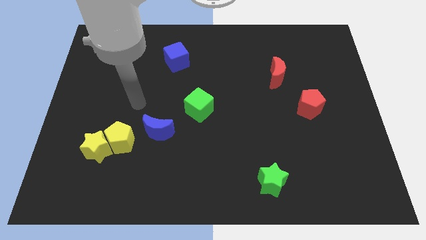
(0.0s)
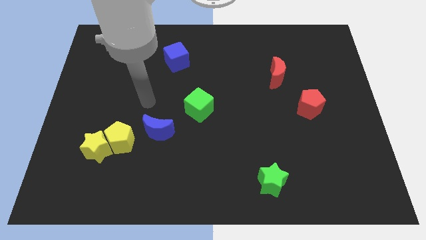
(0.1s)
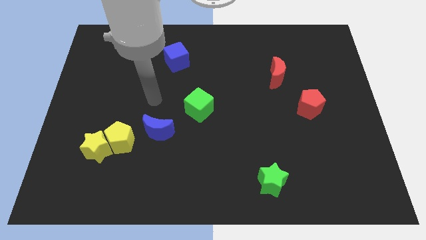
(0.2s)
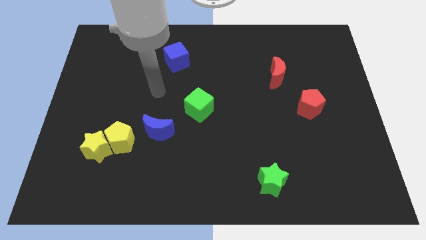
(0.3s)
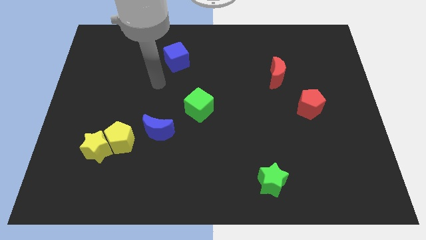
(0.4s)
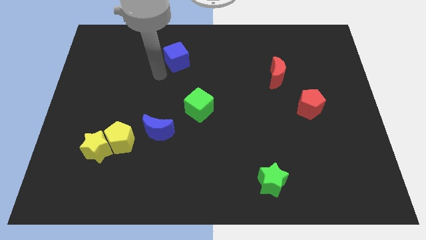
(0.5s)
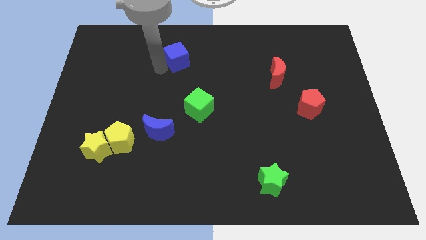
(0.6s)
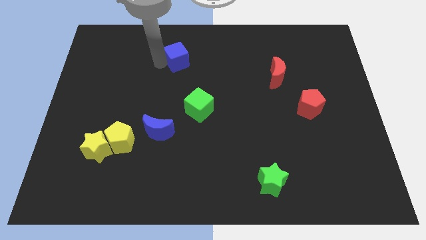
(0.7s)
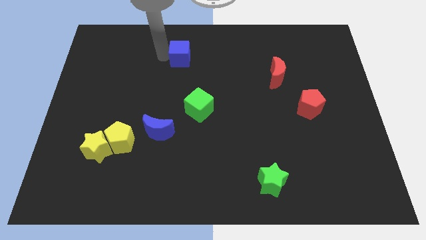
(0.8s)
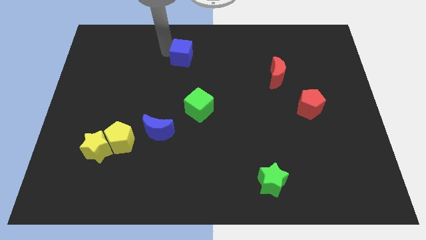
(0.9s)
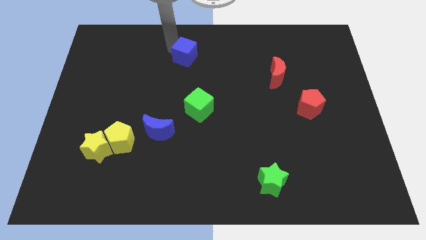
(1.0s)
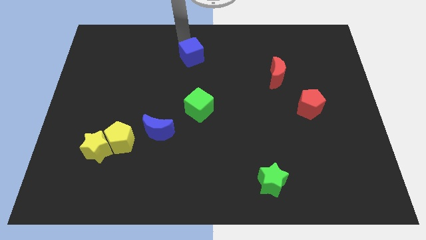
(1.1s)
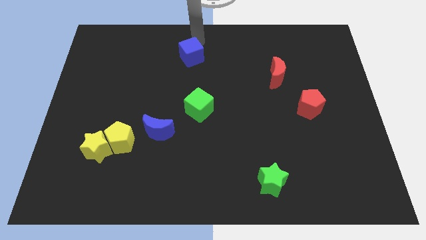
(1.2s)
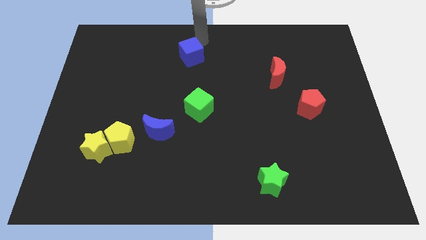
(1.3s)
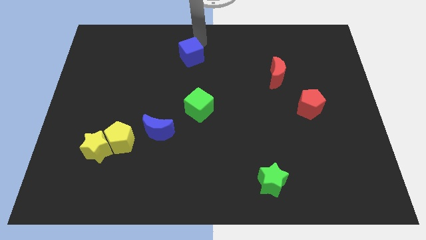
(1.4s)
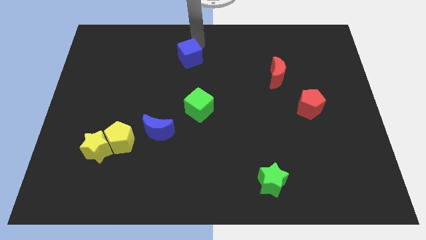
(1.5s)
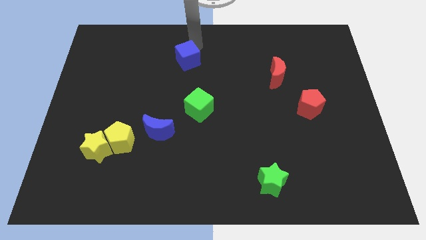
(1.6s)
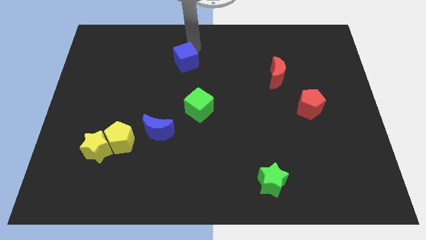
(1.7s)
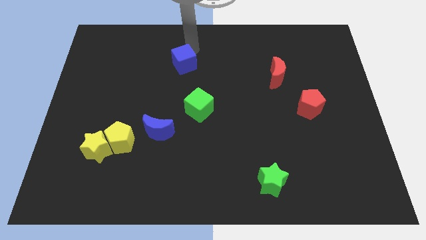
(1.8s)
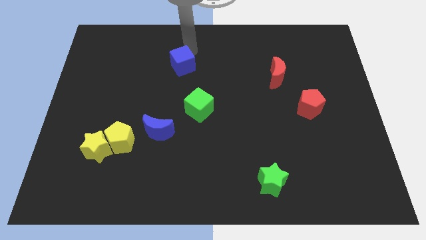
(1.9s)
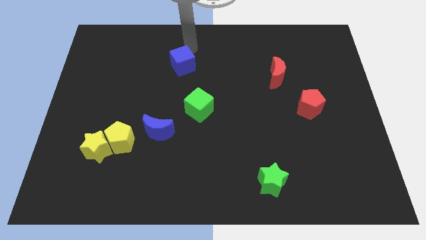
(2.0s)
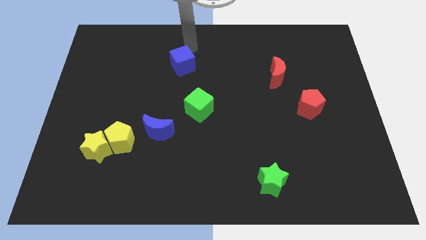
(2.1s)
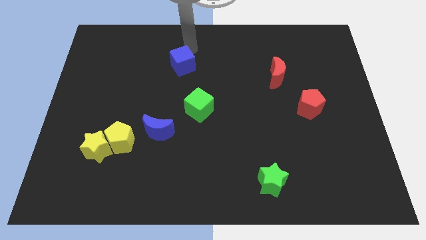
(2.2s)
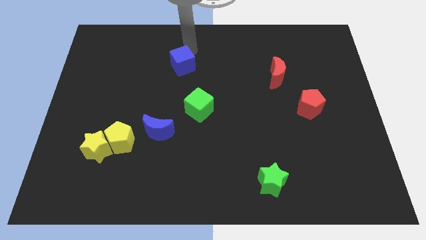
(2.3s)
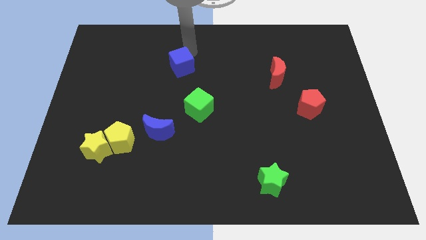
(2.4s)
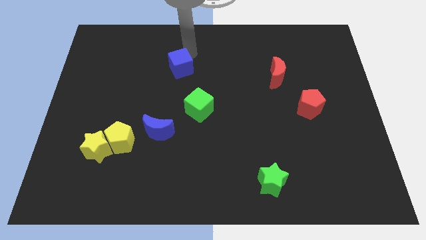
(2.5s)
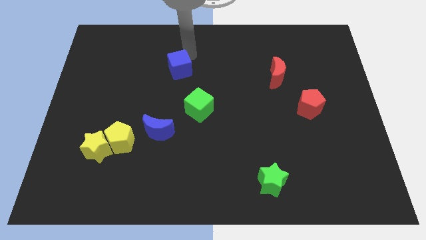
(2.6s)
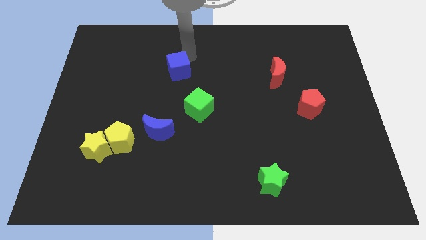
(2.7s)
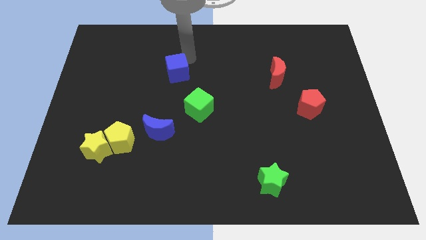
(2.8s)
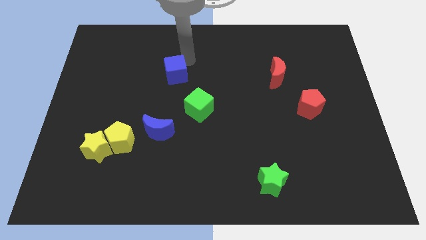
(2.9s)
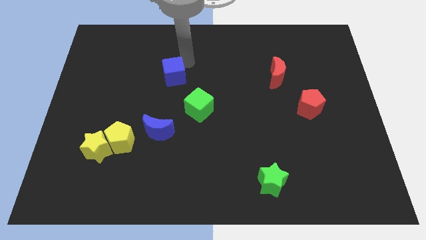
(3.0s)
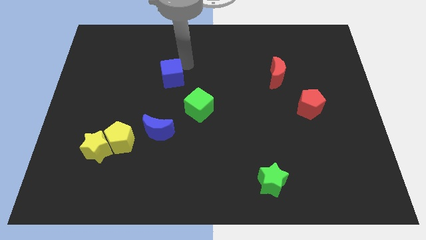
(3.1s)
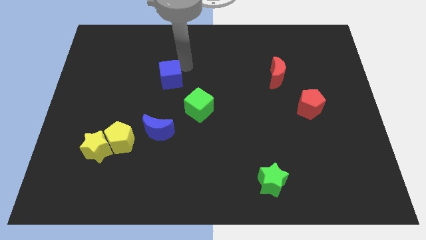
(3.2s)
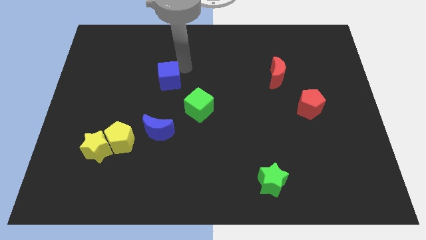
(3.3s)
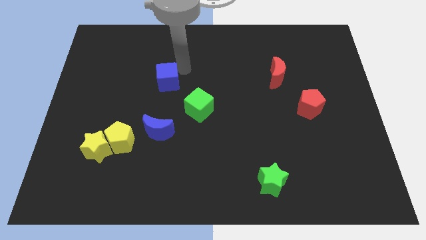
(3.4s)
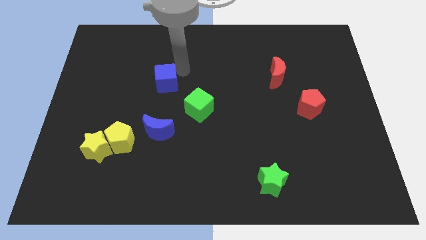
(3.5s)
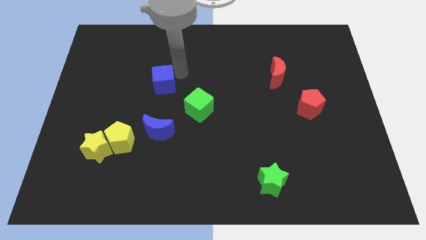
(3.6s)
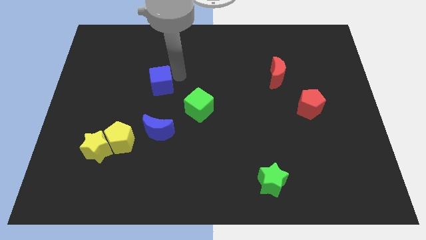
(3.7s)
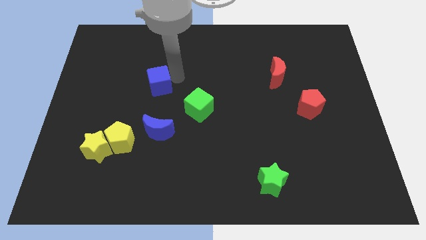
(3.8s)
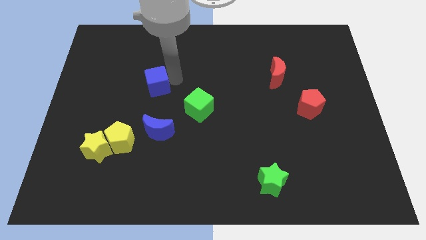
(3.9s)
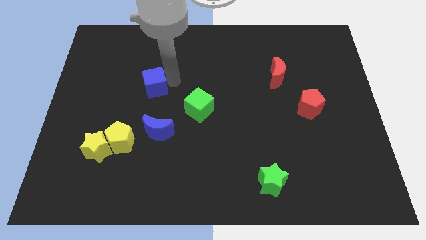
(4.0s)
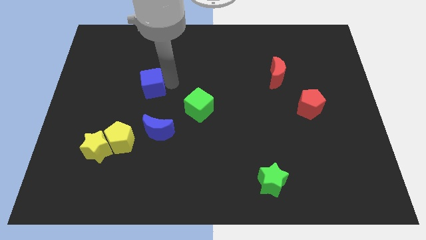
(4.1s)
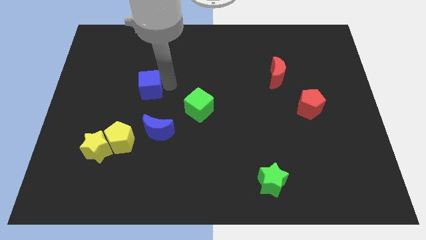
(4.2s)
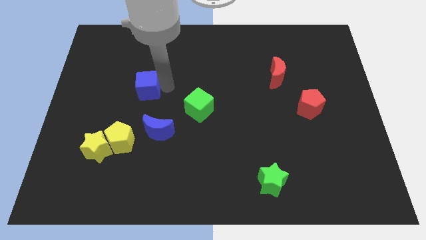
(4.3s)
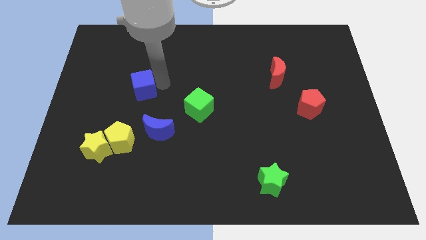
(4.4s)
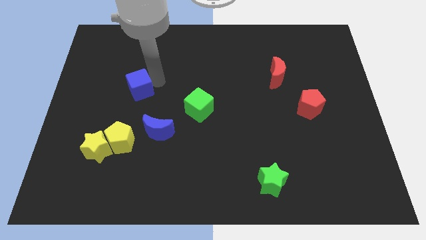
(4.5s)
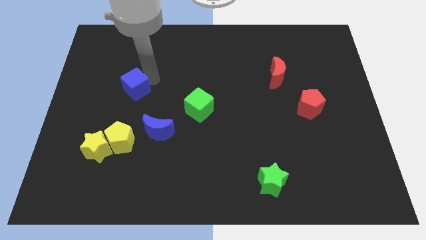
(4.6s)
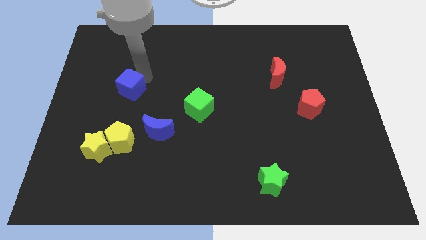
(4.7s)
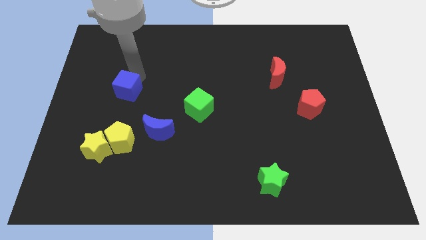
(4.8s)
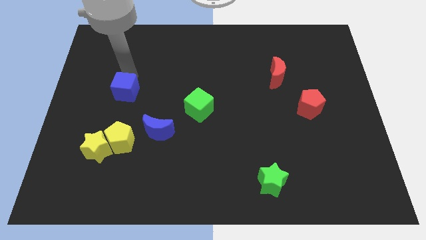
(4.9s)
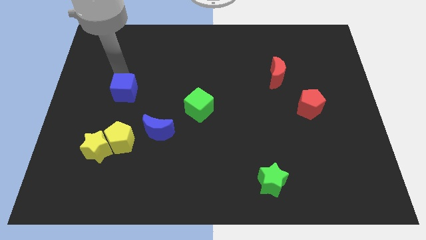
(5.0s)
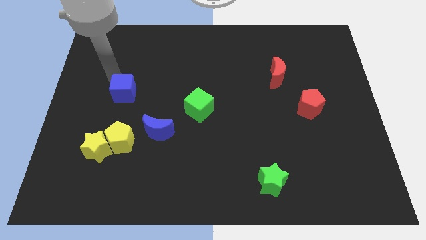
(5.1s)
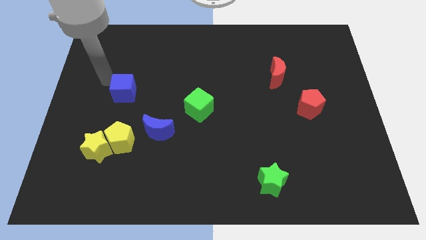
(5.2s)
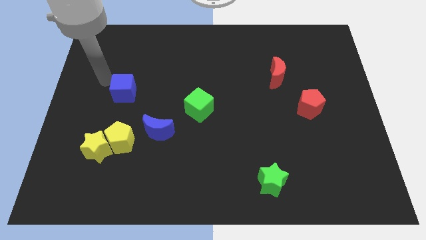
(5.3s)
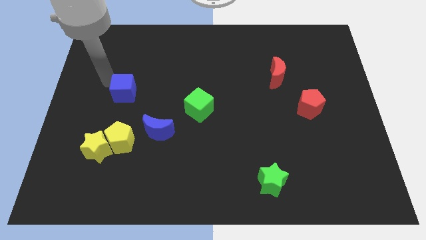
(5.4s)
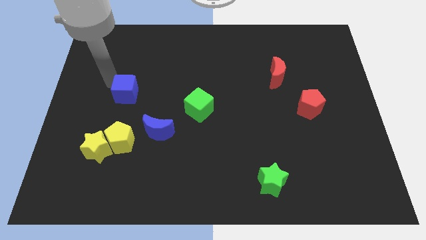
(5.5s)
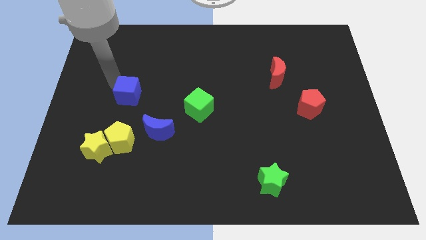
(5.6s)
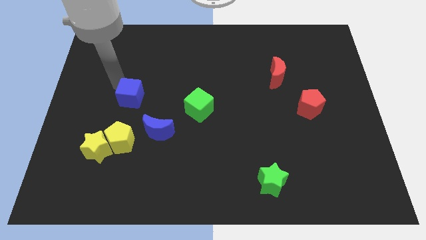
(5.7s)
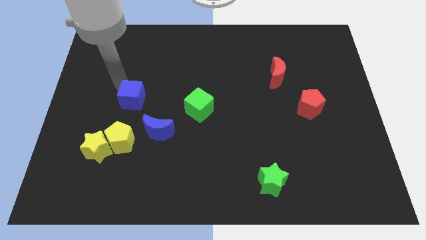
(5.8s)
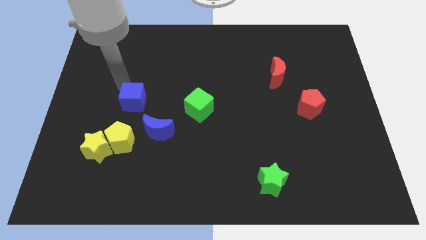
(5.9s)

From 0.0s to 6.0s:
move the blue cube just left of the green cube
